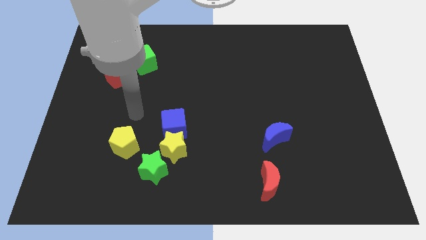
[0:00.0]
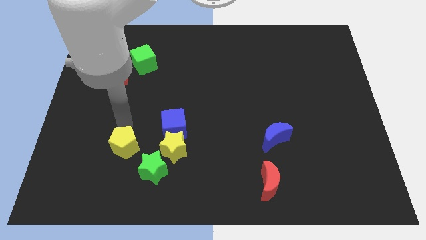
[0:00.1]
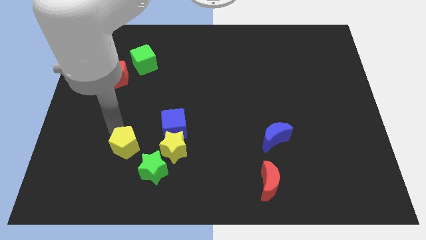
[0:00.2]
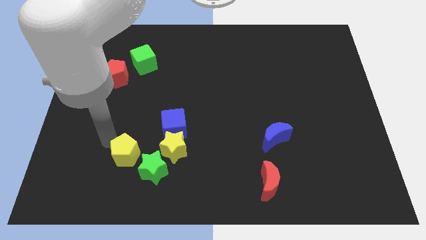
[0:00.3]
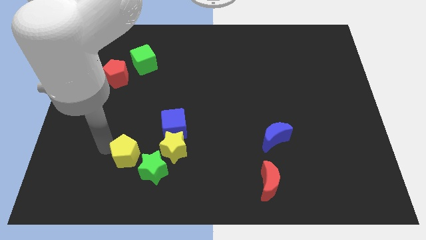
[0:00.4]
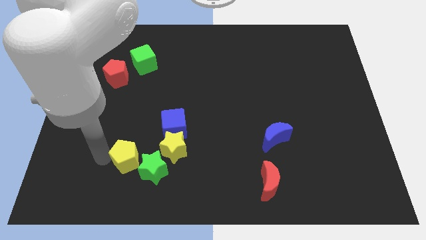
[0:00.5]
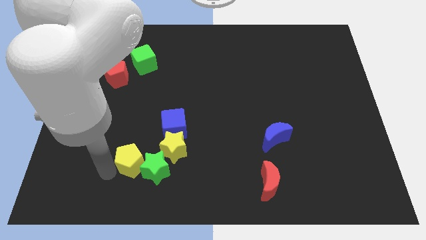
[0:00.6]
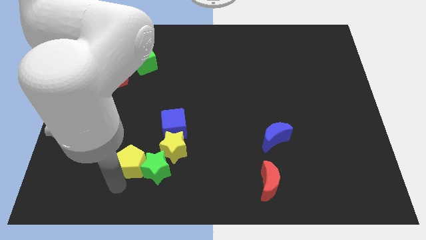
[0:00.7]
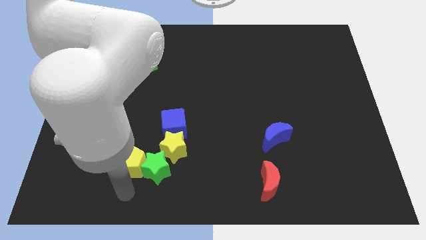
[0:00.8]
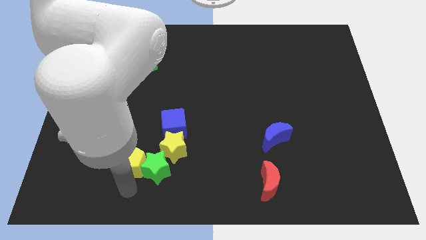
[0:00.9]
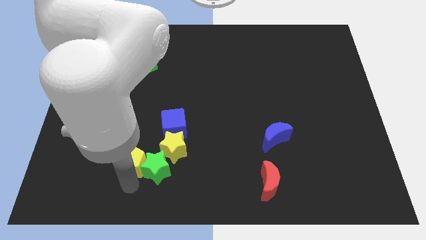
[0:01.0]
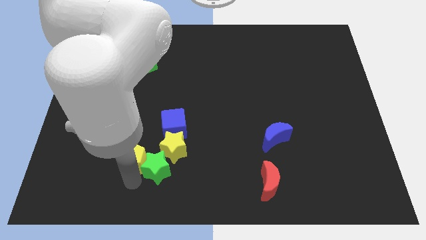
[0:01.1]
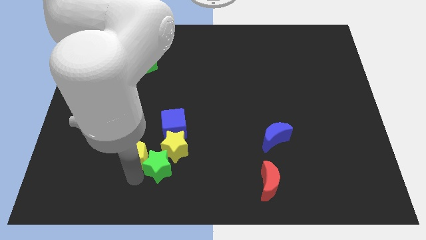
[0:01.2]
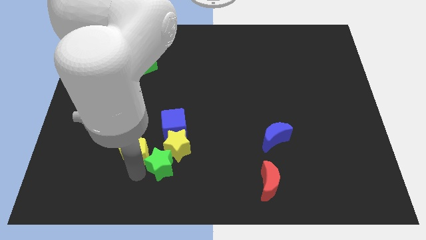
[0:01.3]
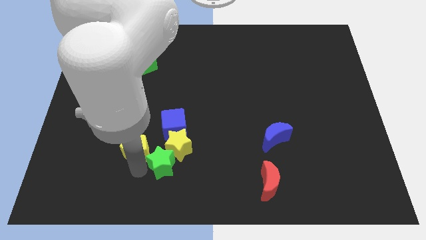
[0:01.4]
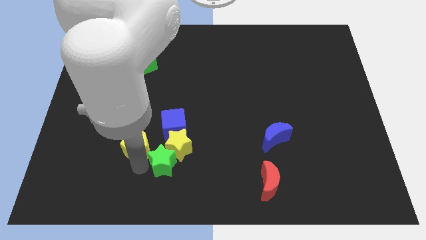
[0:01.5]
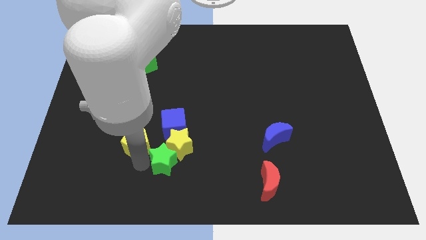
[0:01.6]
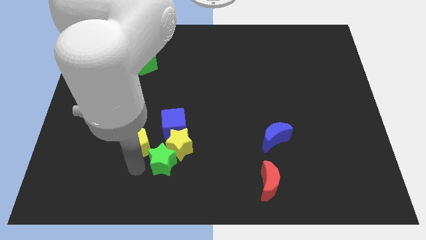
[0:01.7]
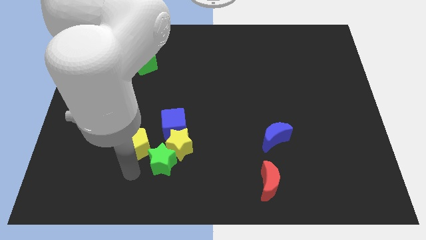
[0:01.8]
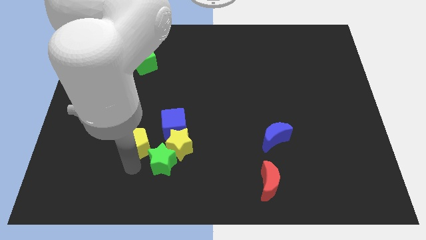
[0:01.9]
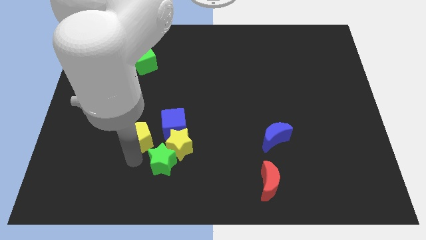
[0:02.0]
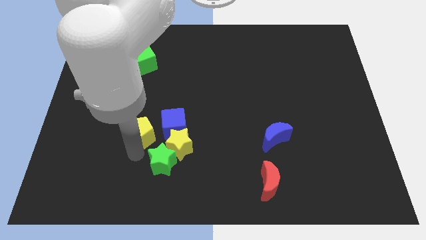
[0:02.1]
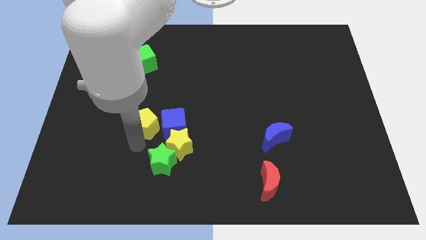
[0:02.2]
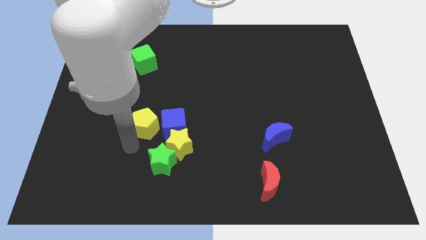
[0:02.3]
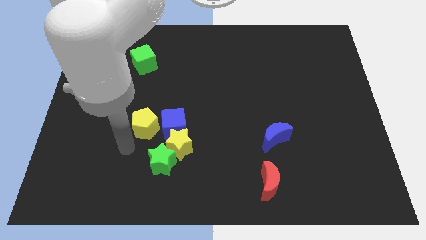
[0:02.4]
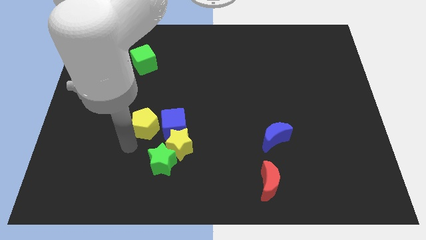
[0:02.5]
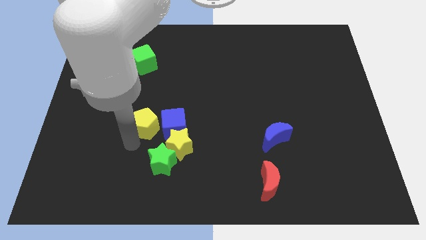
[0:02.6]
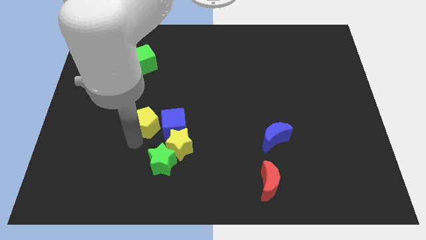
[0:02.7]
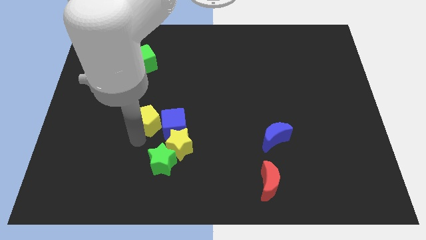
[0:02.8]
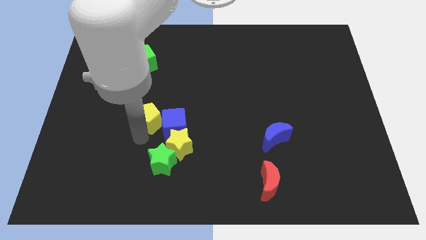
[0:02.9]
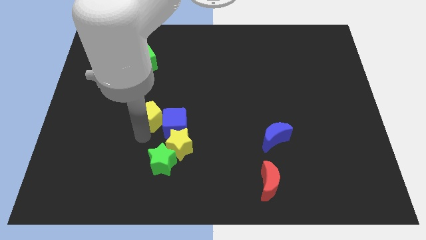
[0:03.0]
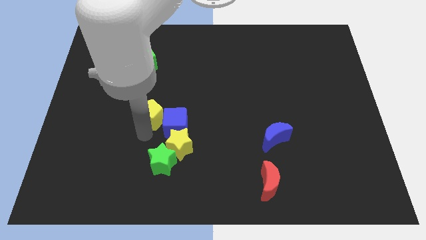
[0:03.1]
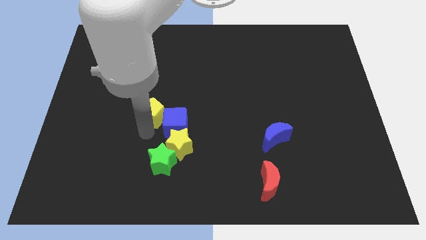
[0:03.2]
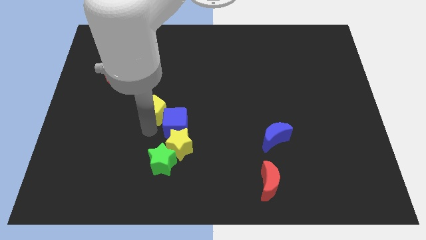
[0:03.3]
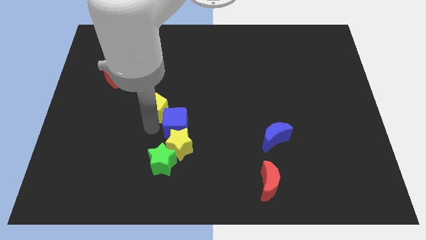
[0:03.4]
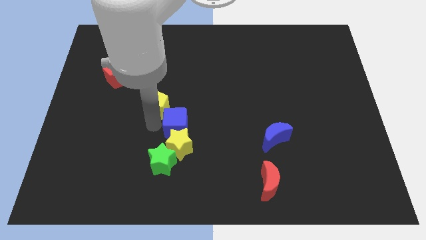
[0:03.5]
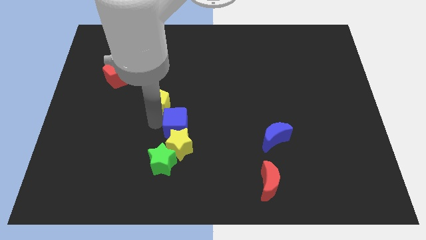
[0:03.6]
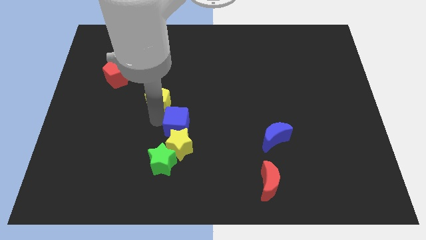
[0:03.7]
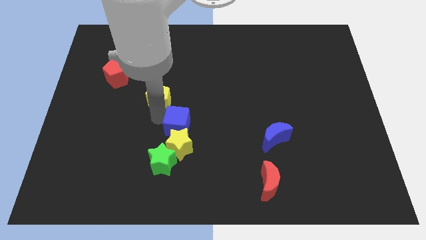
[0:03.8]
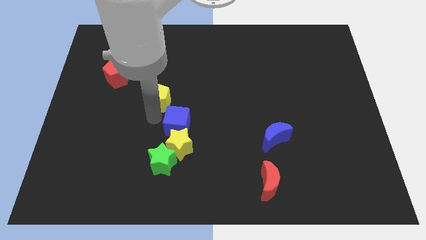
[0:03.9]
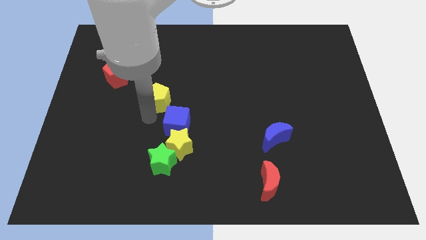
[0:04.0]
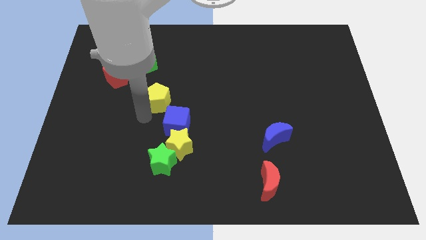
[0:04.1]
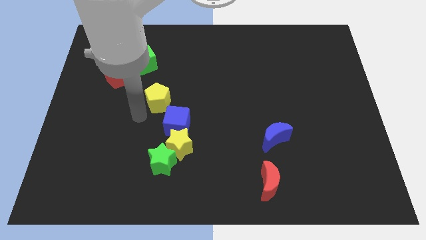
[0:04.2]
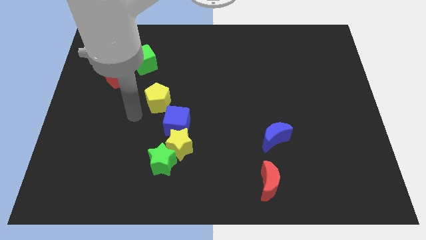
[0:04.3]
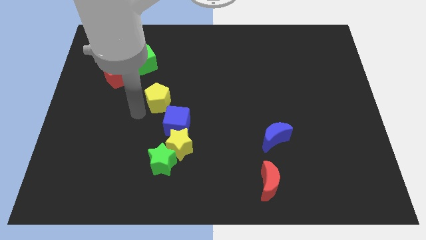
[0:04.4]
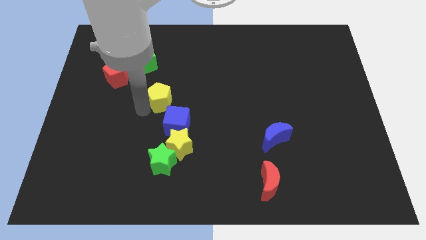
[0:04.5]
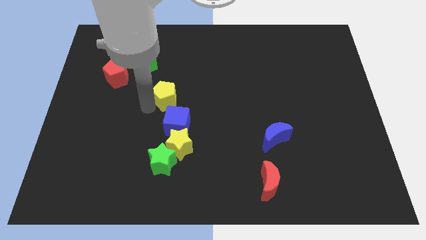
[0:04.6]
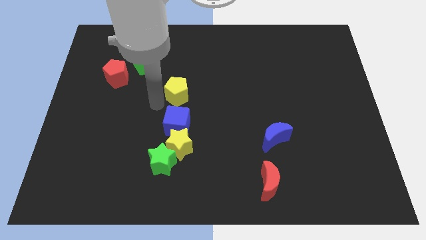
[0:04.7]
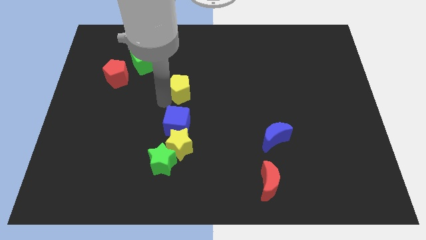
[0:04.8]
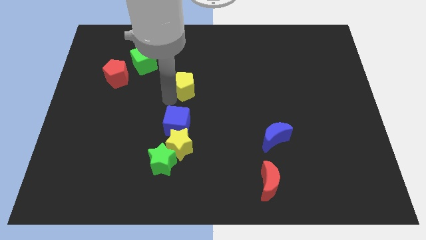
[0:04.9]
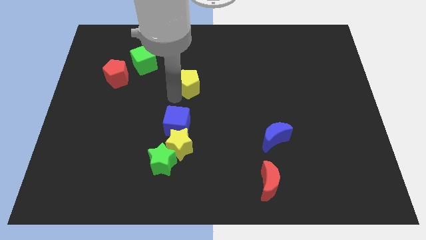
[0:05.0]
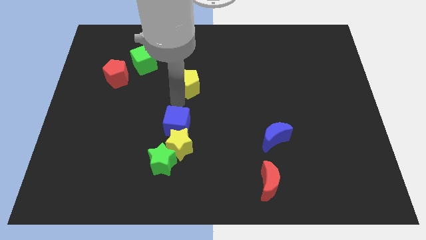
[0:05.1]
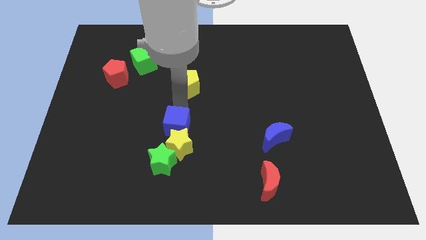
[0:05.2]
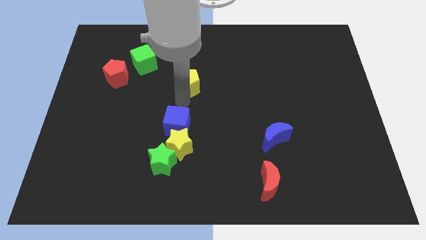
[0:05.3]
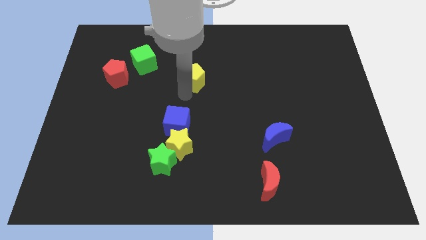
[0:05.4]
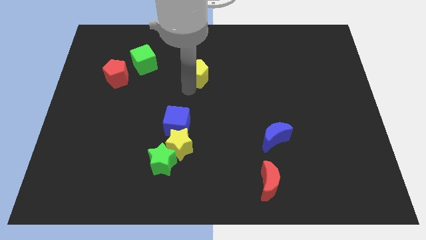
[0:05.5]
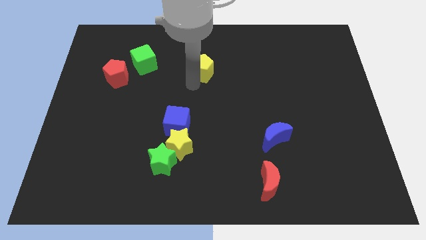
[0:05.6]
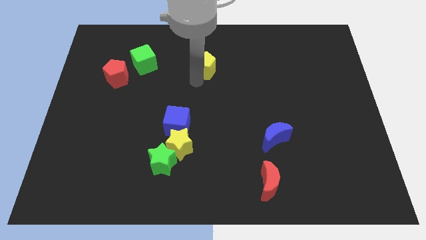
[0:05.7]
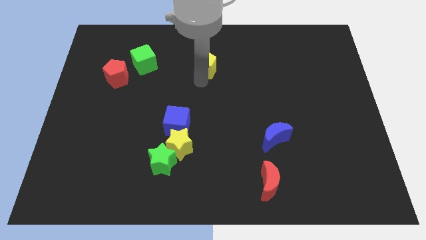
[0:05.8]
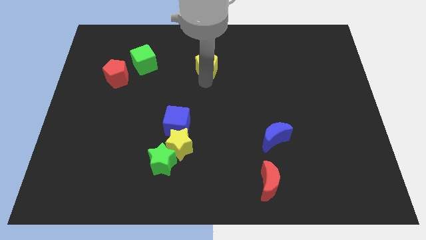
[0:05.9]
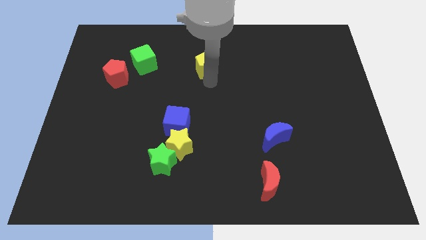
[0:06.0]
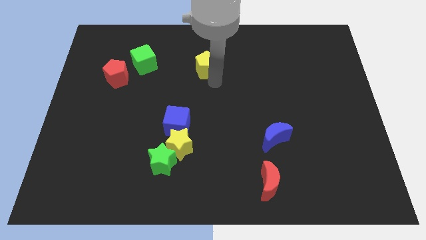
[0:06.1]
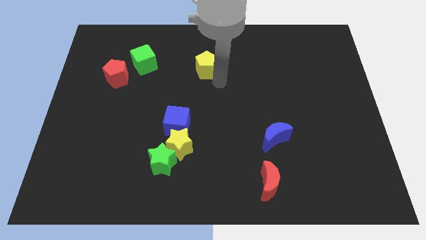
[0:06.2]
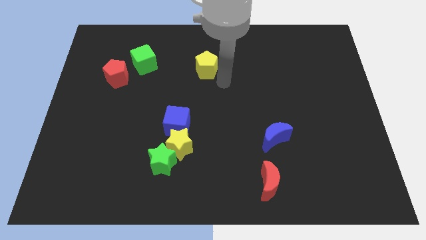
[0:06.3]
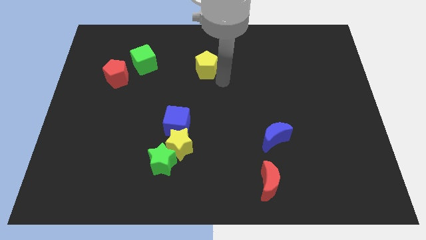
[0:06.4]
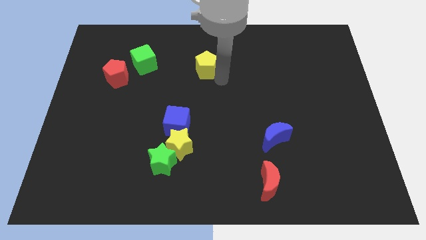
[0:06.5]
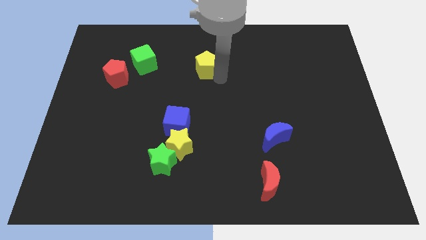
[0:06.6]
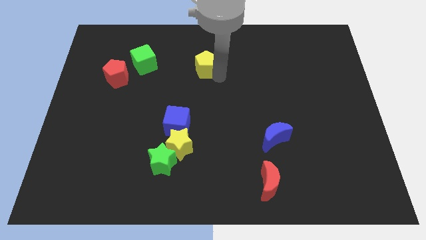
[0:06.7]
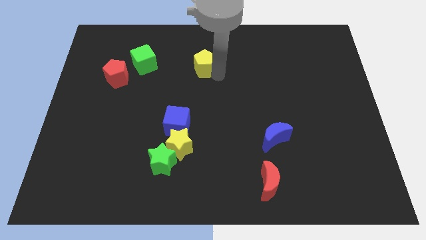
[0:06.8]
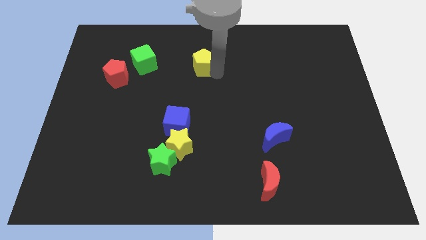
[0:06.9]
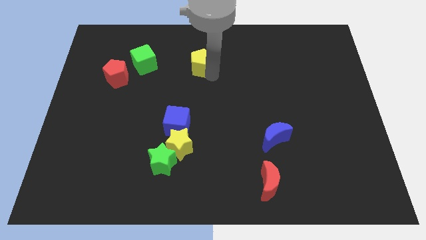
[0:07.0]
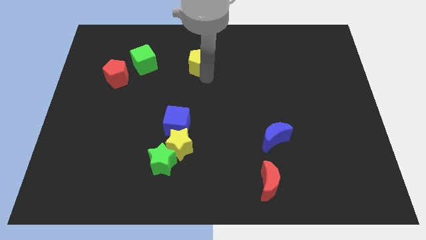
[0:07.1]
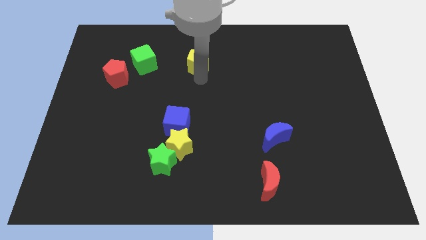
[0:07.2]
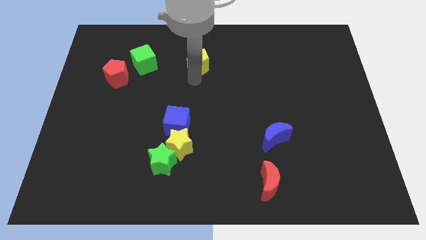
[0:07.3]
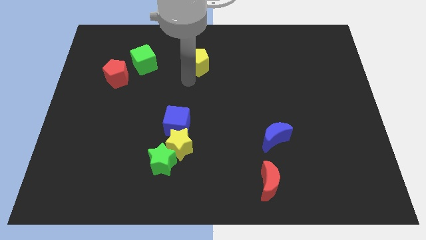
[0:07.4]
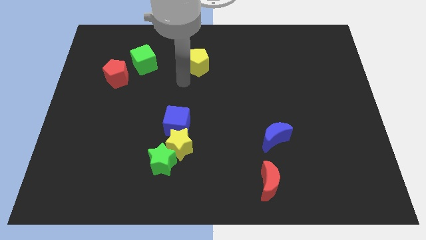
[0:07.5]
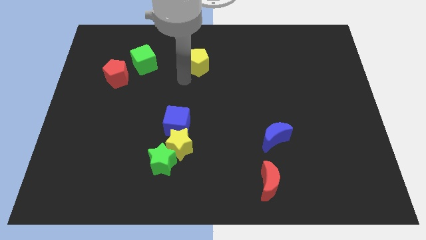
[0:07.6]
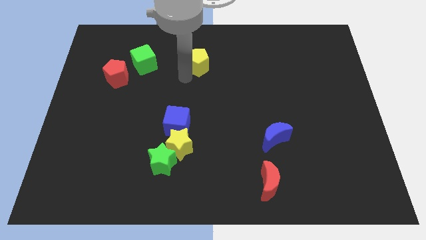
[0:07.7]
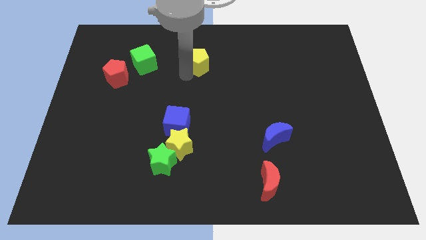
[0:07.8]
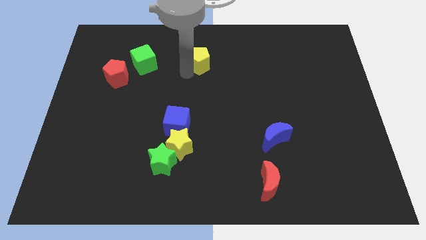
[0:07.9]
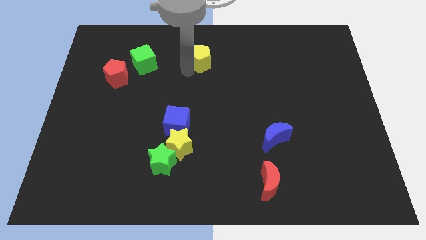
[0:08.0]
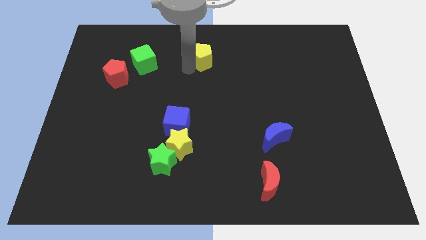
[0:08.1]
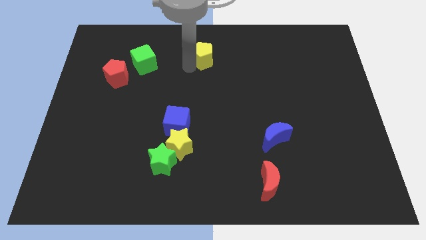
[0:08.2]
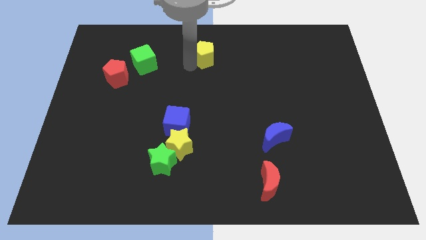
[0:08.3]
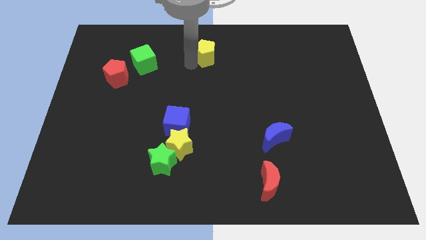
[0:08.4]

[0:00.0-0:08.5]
slide the yellow pentagon to the top side
